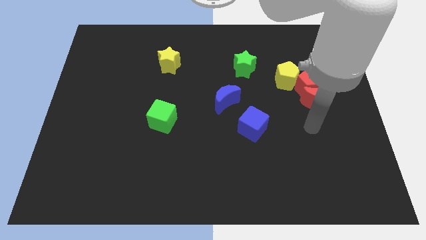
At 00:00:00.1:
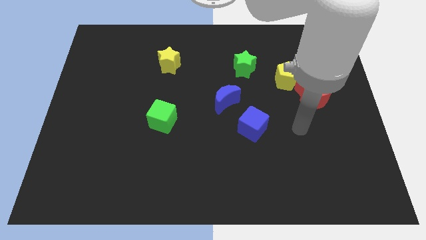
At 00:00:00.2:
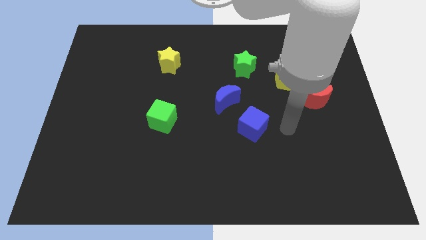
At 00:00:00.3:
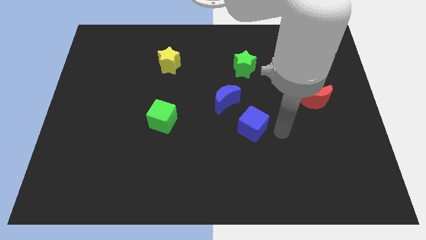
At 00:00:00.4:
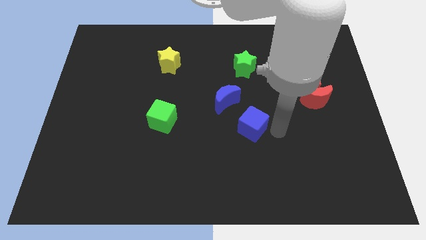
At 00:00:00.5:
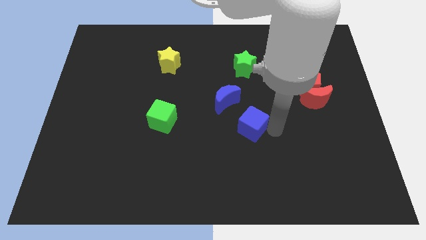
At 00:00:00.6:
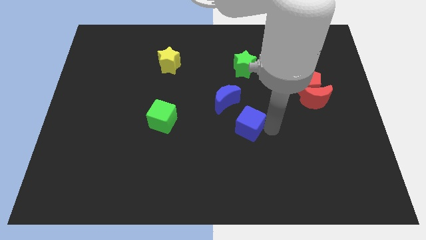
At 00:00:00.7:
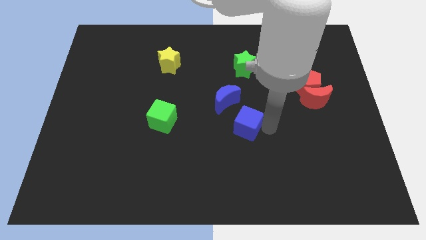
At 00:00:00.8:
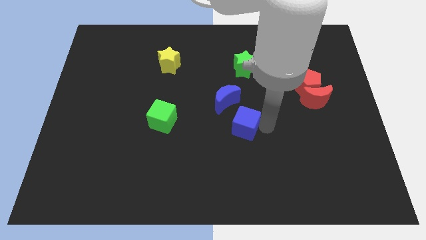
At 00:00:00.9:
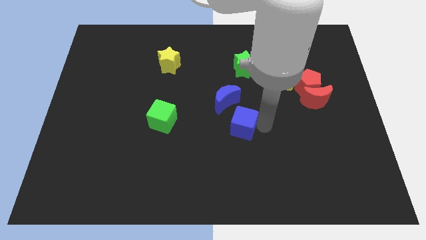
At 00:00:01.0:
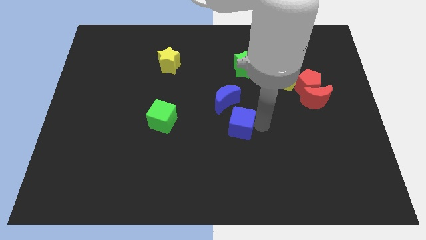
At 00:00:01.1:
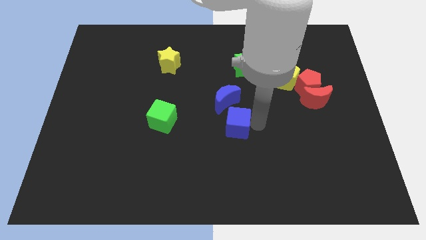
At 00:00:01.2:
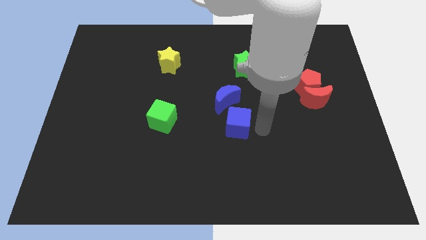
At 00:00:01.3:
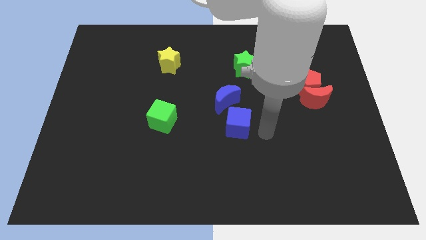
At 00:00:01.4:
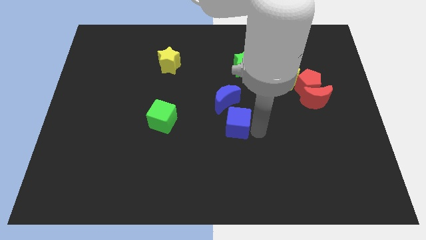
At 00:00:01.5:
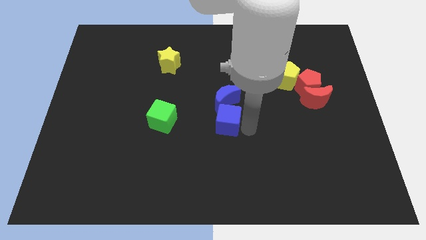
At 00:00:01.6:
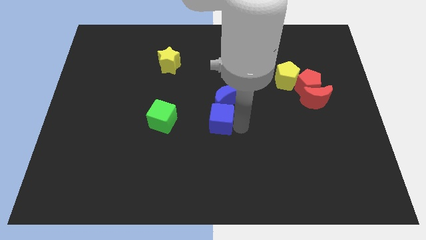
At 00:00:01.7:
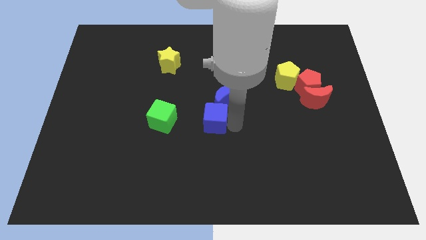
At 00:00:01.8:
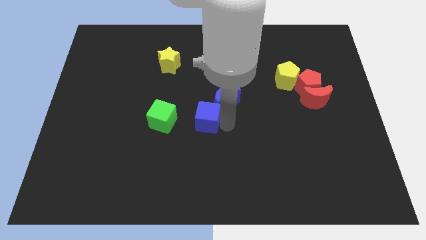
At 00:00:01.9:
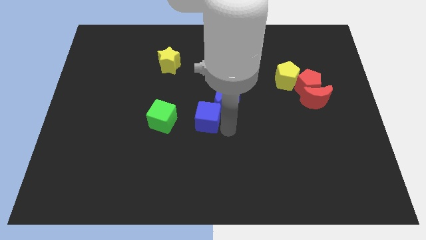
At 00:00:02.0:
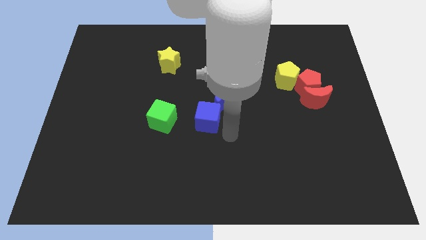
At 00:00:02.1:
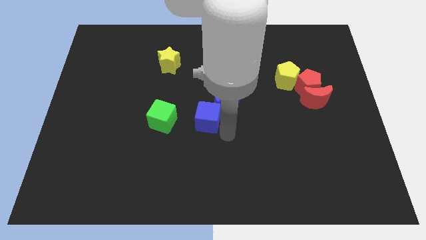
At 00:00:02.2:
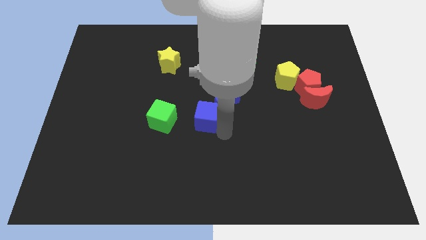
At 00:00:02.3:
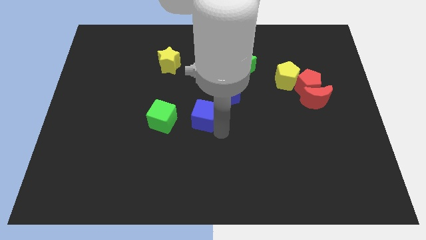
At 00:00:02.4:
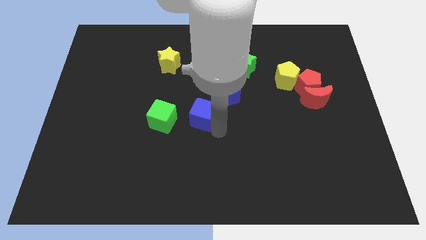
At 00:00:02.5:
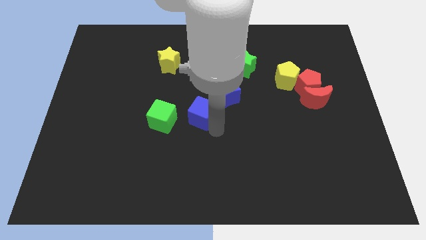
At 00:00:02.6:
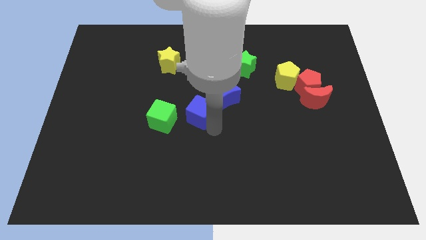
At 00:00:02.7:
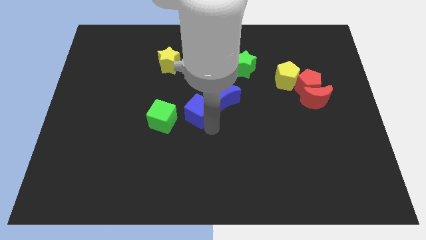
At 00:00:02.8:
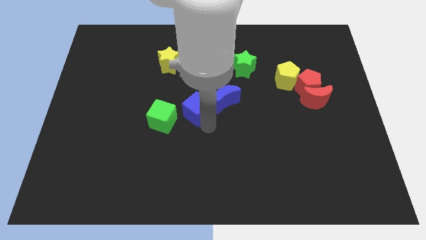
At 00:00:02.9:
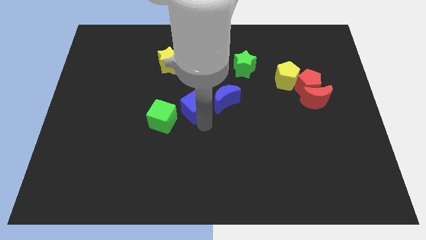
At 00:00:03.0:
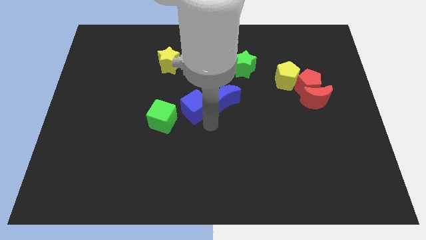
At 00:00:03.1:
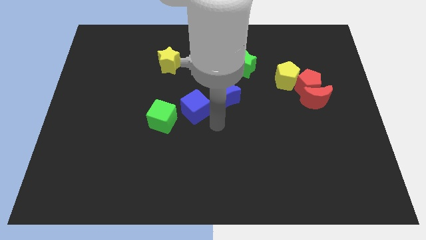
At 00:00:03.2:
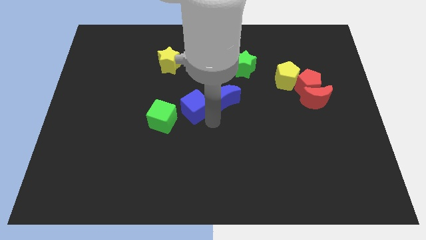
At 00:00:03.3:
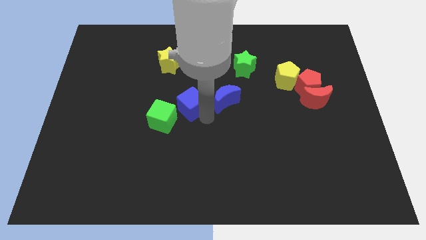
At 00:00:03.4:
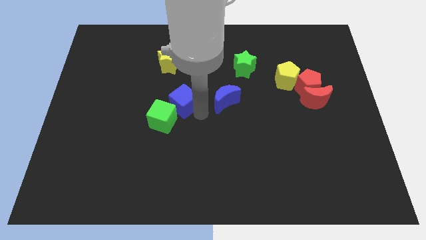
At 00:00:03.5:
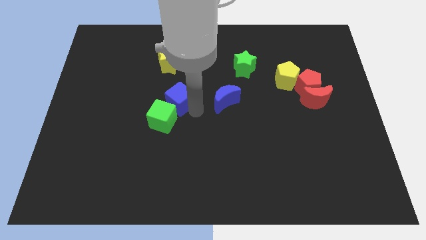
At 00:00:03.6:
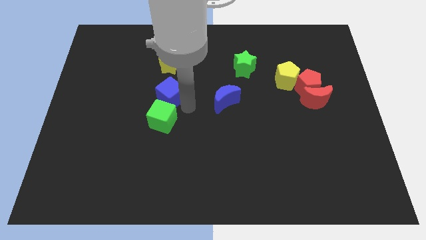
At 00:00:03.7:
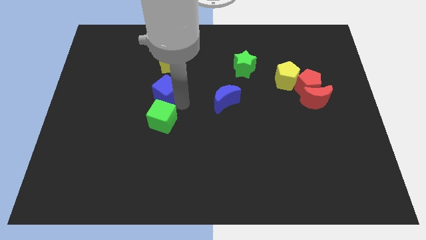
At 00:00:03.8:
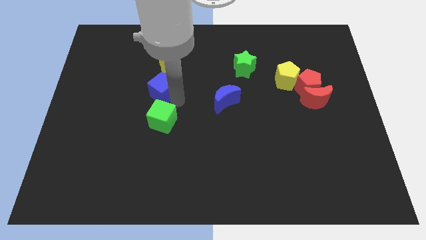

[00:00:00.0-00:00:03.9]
slide the blue cube up and to the left

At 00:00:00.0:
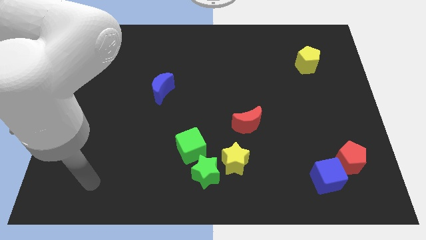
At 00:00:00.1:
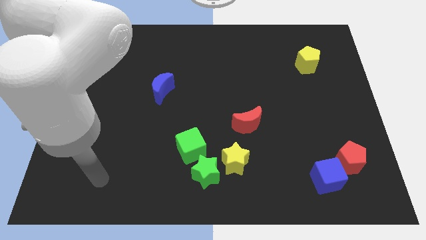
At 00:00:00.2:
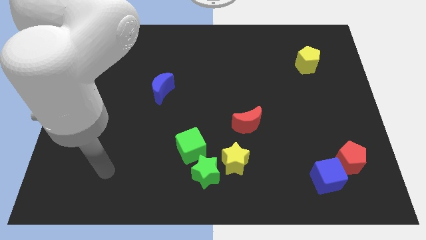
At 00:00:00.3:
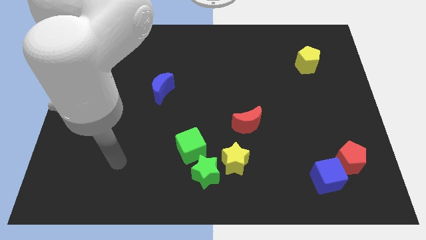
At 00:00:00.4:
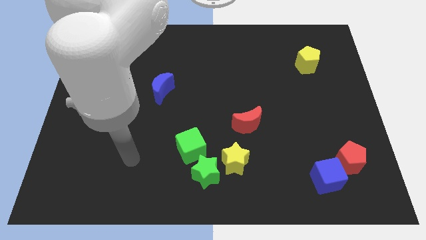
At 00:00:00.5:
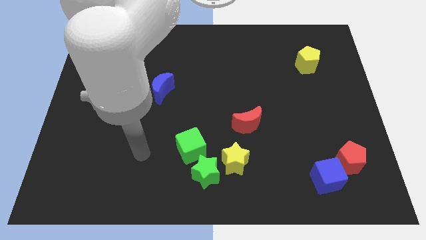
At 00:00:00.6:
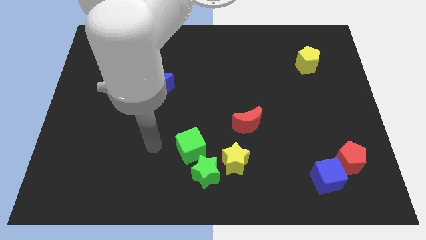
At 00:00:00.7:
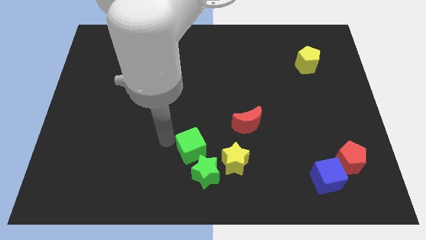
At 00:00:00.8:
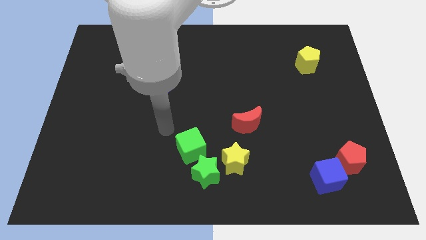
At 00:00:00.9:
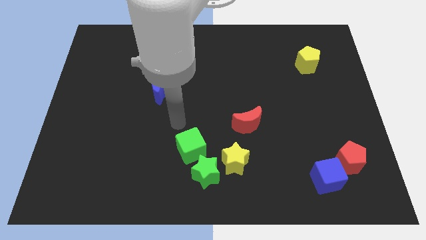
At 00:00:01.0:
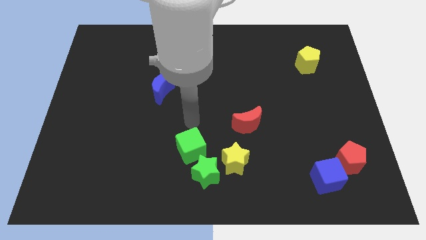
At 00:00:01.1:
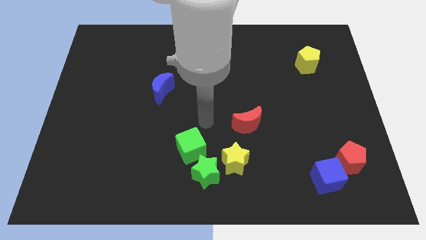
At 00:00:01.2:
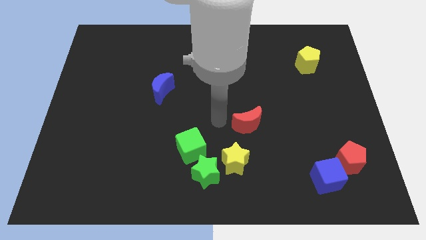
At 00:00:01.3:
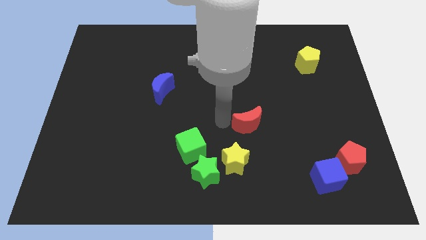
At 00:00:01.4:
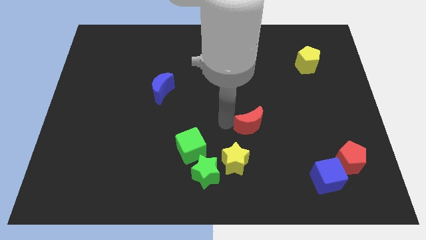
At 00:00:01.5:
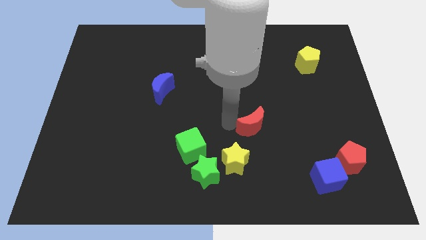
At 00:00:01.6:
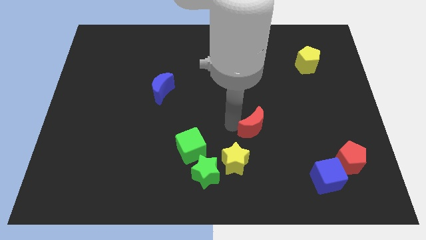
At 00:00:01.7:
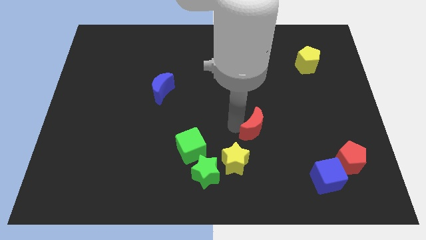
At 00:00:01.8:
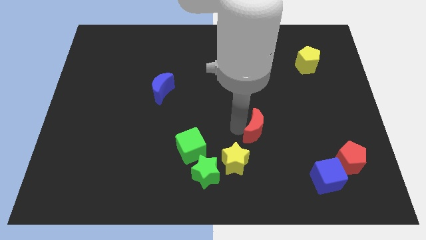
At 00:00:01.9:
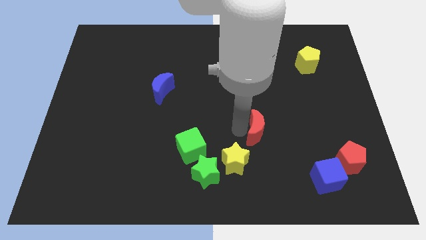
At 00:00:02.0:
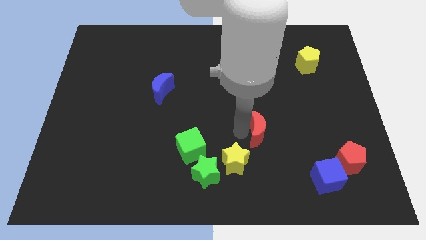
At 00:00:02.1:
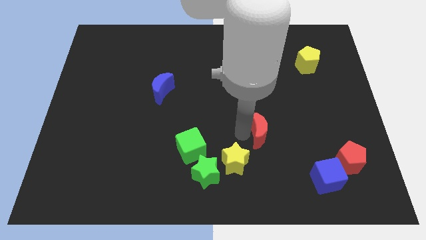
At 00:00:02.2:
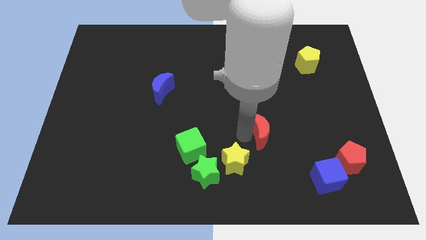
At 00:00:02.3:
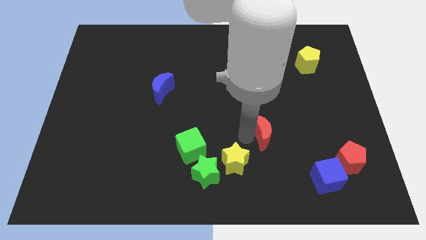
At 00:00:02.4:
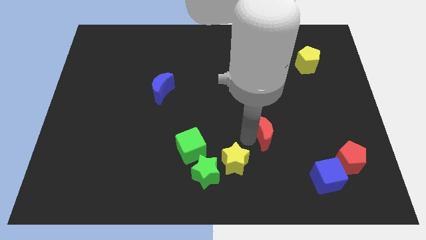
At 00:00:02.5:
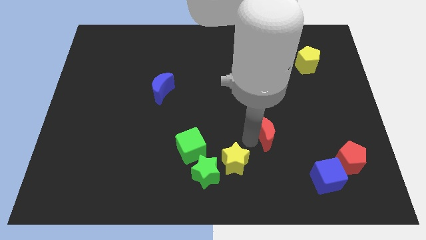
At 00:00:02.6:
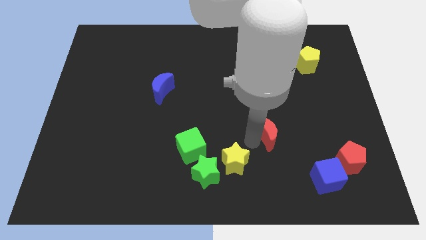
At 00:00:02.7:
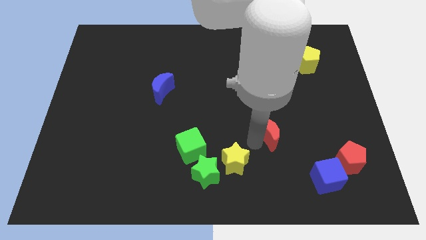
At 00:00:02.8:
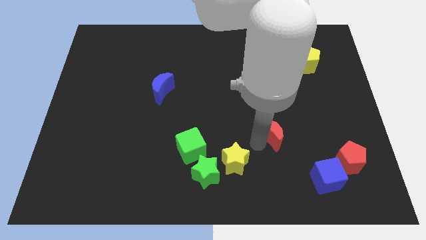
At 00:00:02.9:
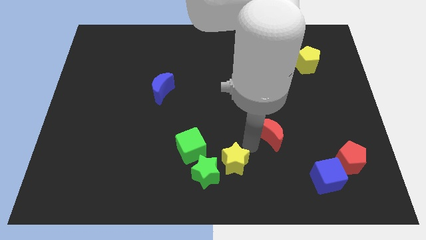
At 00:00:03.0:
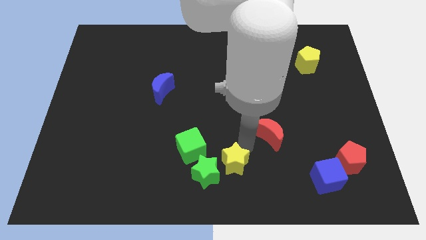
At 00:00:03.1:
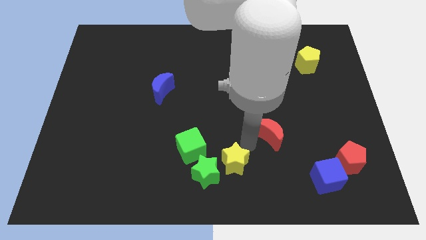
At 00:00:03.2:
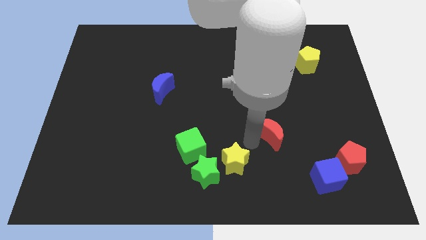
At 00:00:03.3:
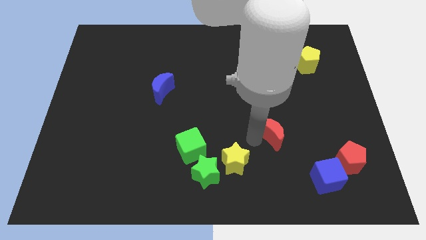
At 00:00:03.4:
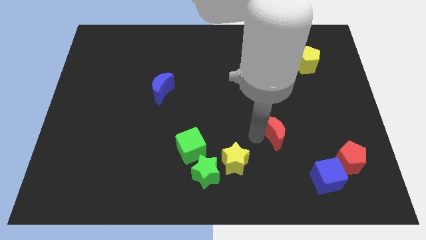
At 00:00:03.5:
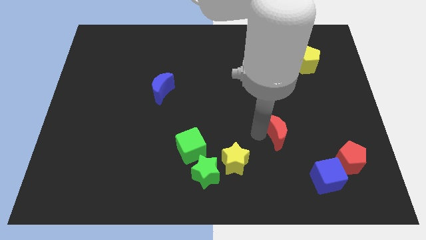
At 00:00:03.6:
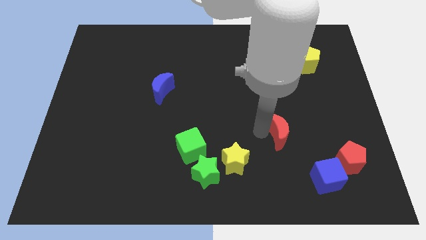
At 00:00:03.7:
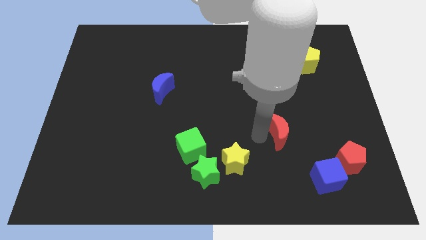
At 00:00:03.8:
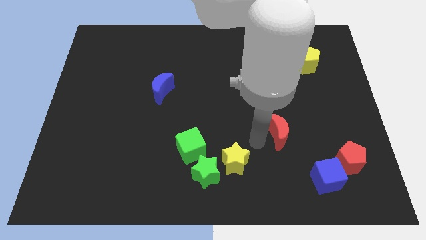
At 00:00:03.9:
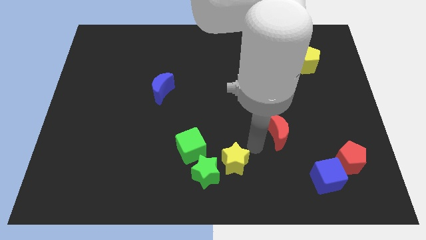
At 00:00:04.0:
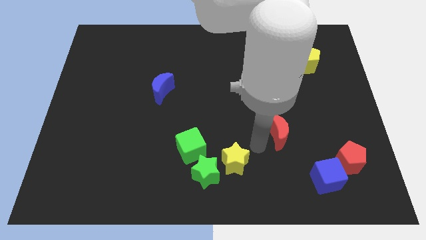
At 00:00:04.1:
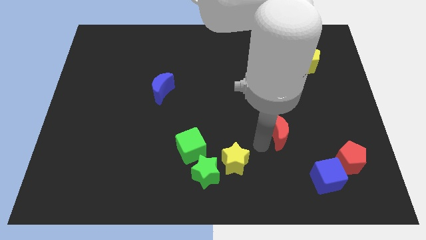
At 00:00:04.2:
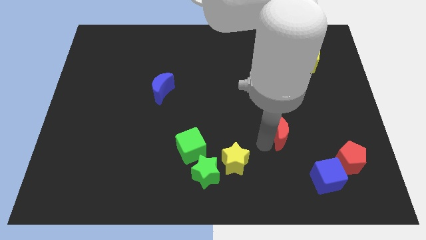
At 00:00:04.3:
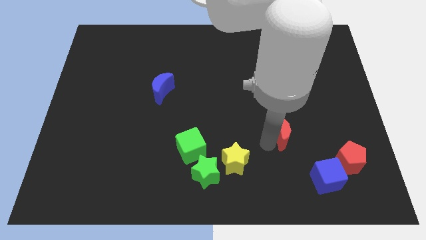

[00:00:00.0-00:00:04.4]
slightly push the red moon right
